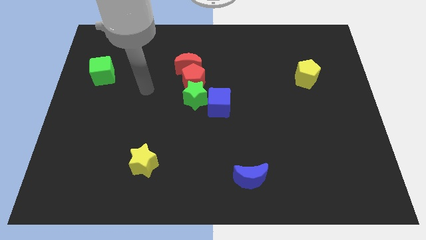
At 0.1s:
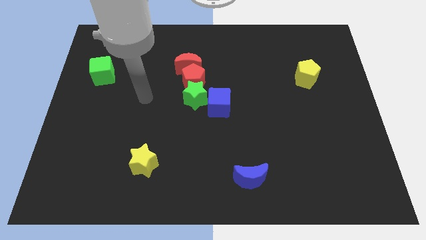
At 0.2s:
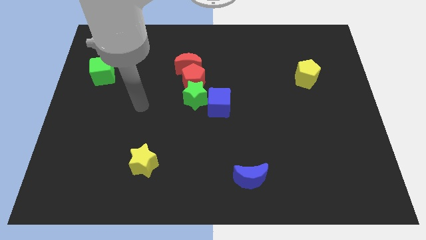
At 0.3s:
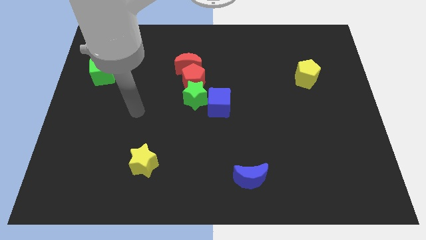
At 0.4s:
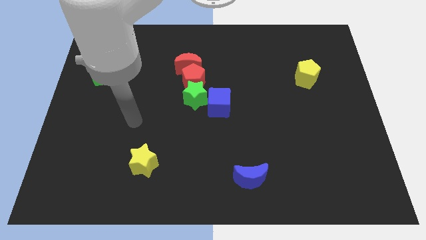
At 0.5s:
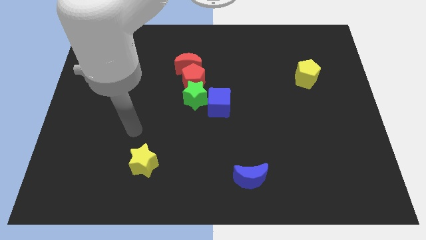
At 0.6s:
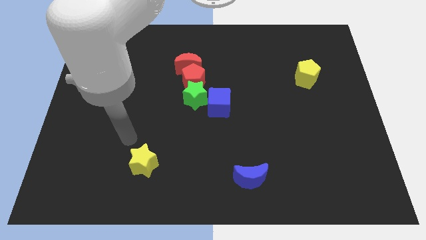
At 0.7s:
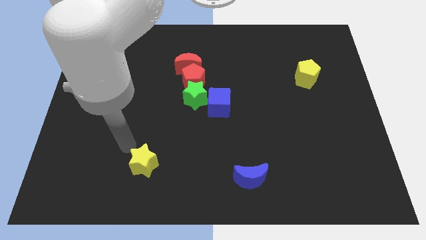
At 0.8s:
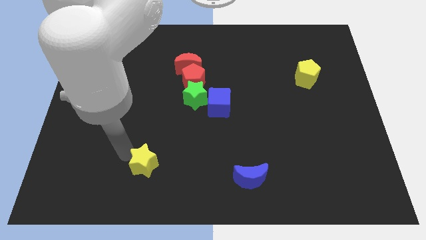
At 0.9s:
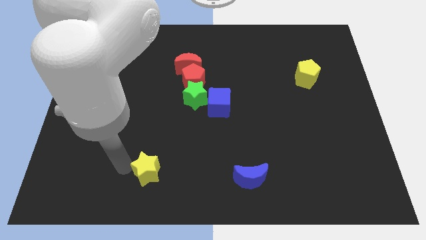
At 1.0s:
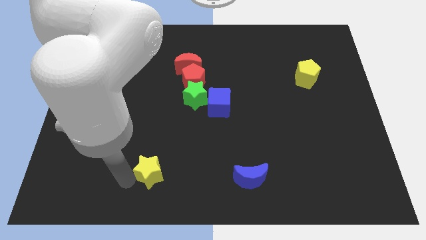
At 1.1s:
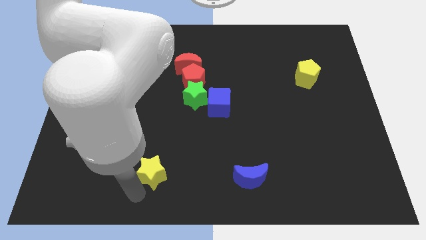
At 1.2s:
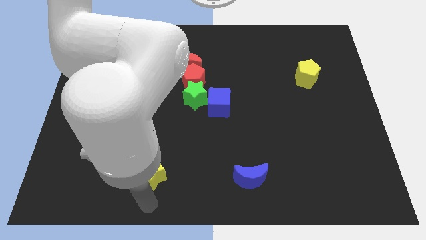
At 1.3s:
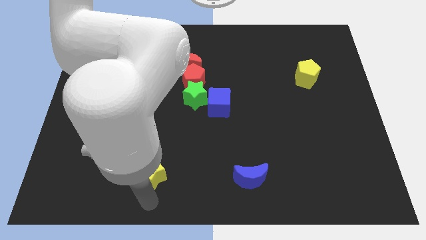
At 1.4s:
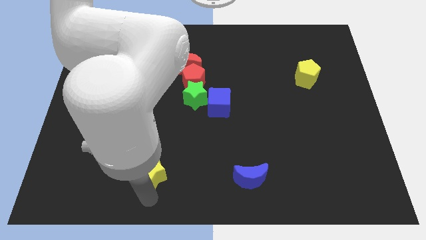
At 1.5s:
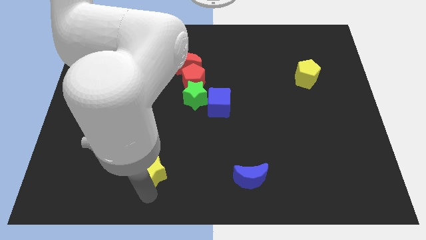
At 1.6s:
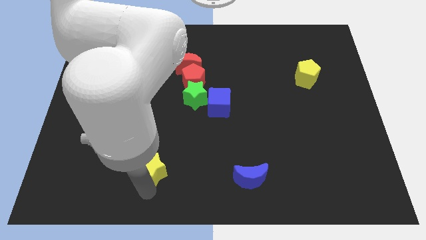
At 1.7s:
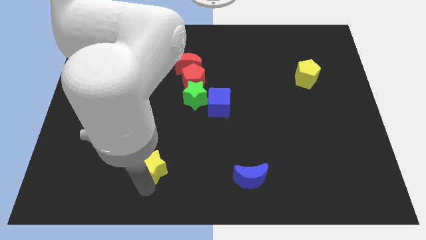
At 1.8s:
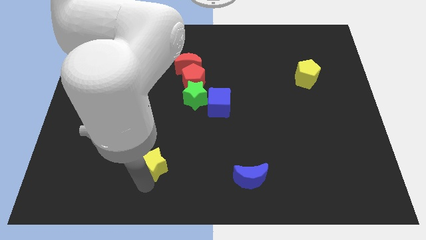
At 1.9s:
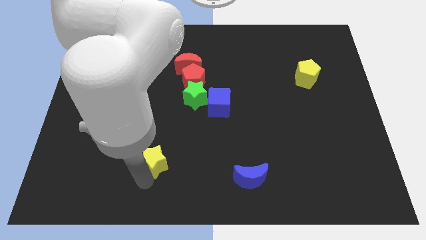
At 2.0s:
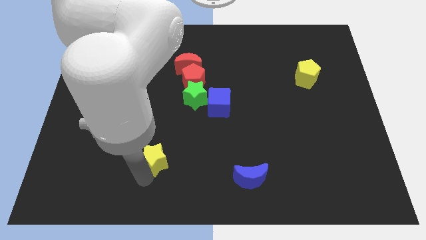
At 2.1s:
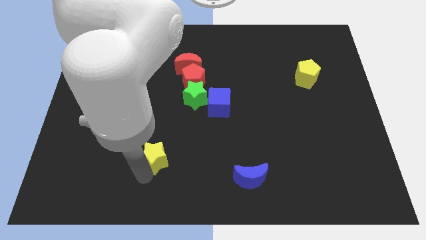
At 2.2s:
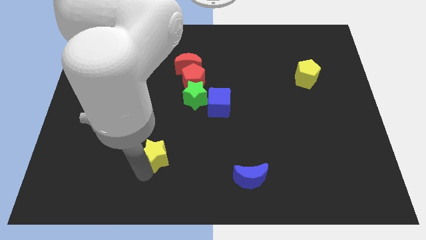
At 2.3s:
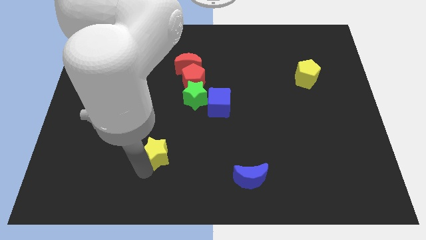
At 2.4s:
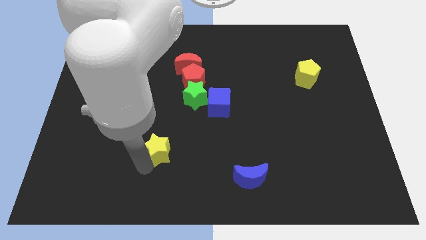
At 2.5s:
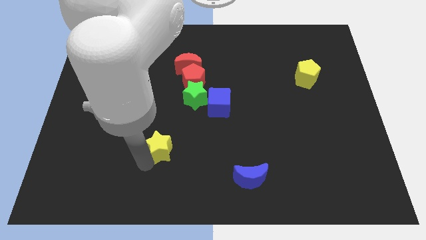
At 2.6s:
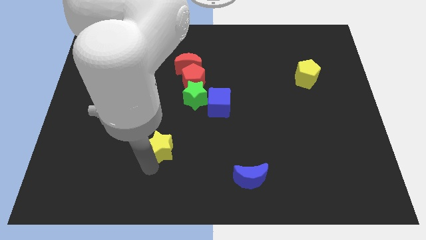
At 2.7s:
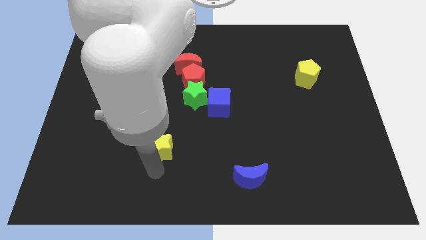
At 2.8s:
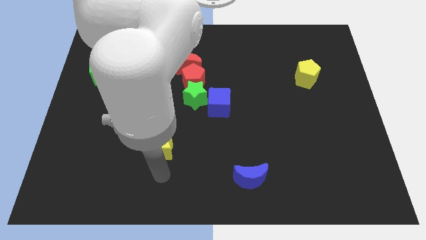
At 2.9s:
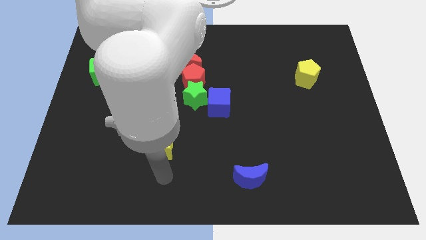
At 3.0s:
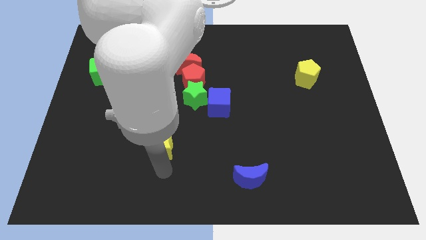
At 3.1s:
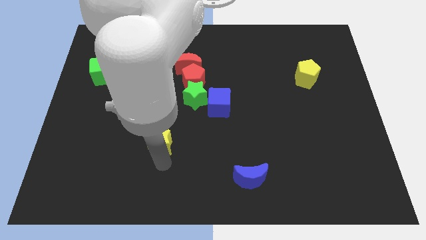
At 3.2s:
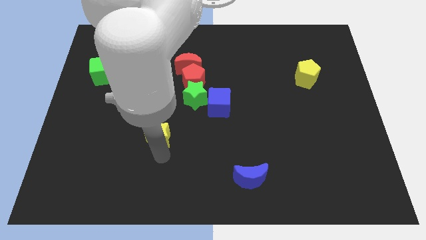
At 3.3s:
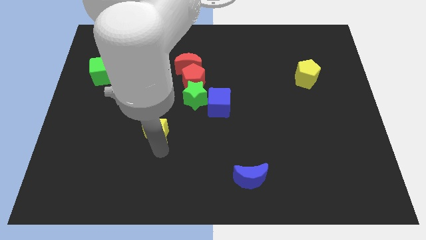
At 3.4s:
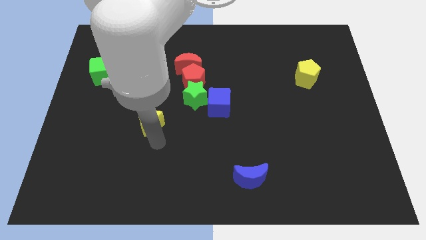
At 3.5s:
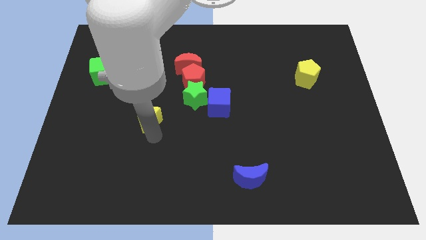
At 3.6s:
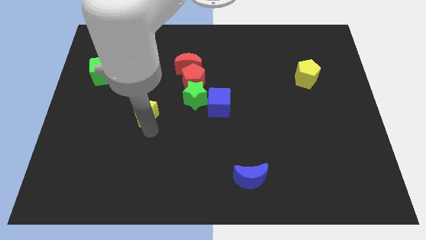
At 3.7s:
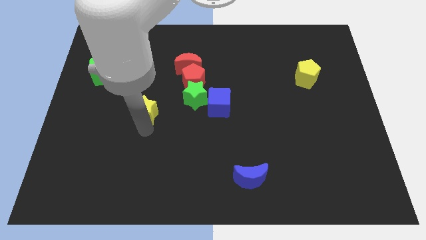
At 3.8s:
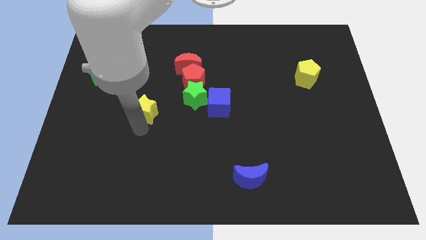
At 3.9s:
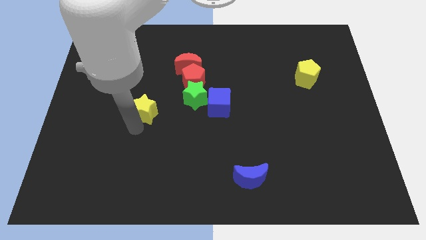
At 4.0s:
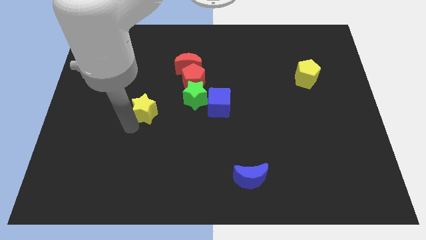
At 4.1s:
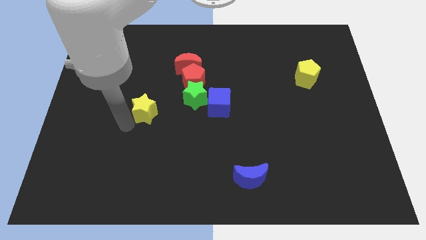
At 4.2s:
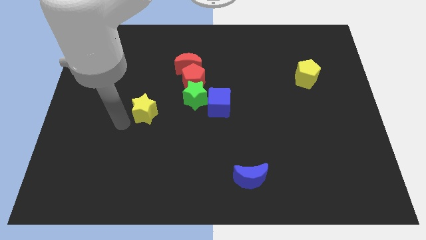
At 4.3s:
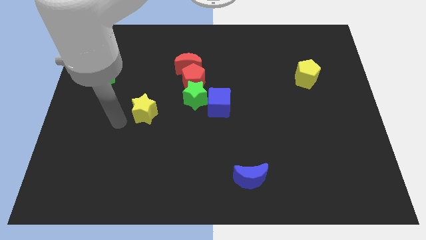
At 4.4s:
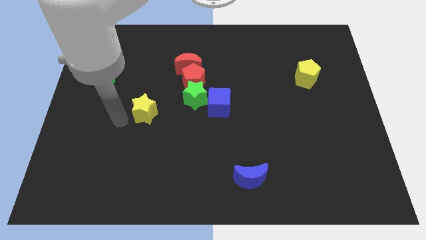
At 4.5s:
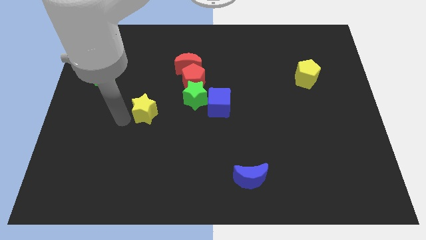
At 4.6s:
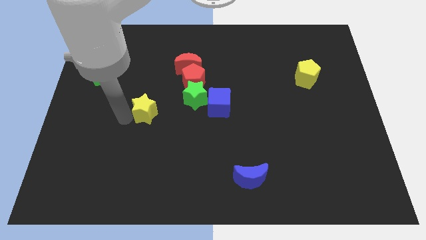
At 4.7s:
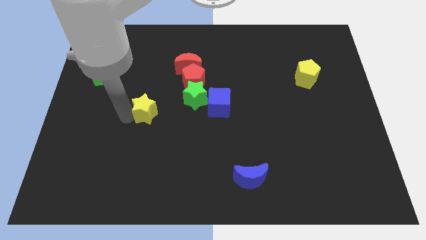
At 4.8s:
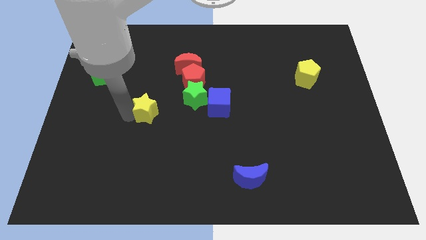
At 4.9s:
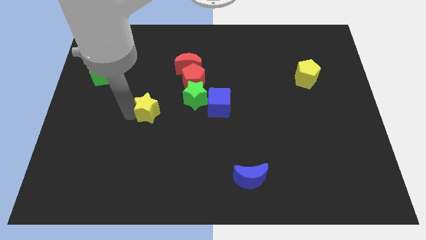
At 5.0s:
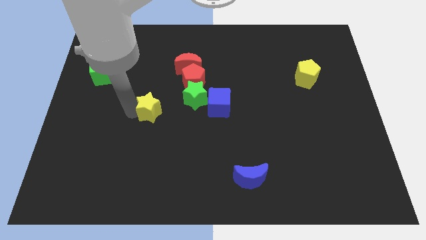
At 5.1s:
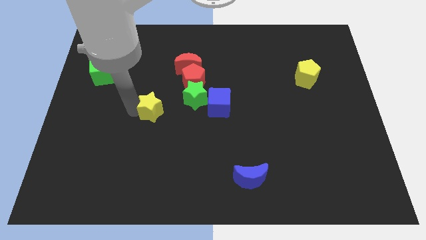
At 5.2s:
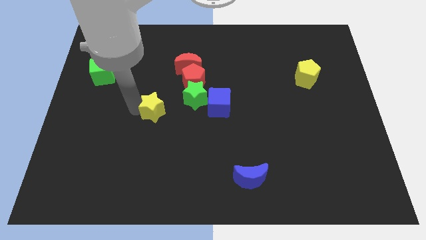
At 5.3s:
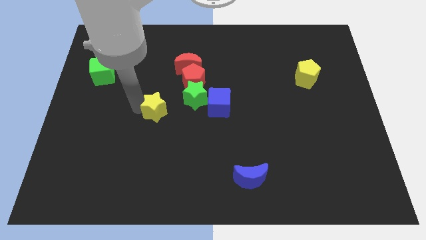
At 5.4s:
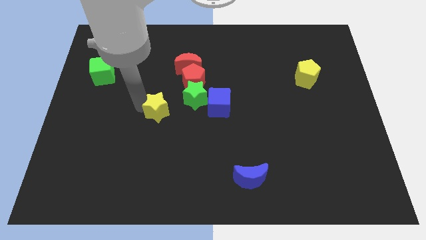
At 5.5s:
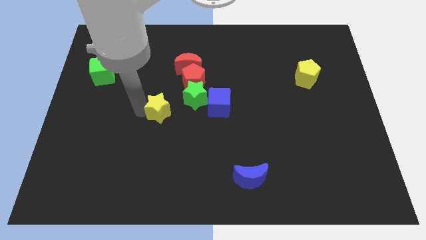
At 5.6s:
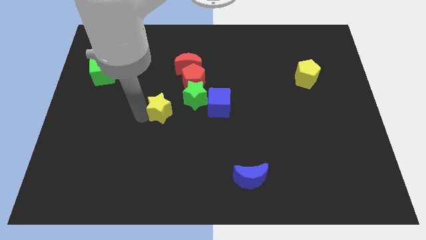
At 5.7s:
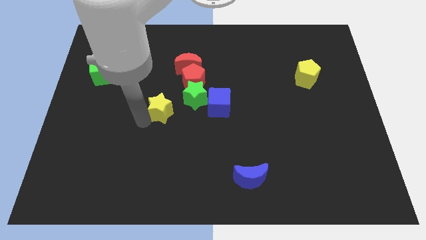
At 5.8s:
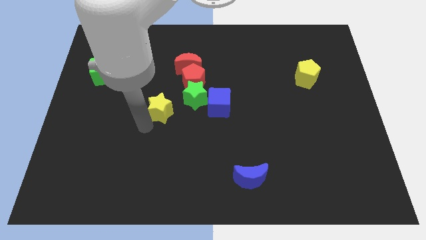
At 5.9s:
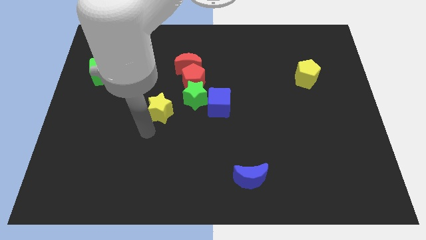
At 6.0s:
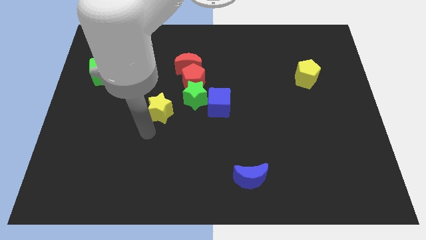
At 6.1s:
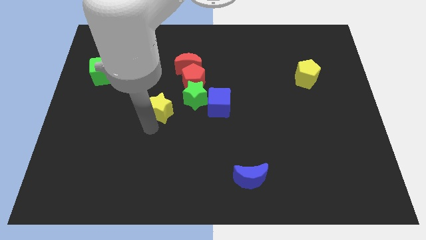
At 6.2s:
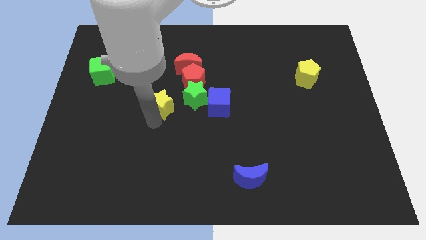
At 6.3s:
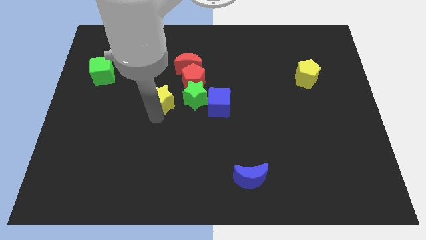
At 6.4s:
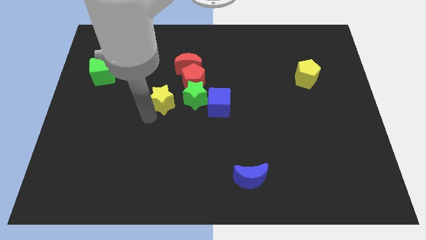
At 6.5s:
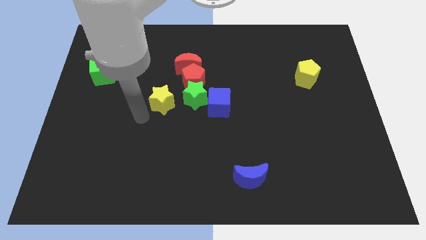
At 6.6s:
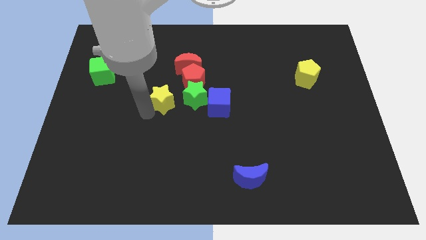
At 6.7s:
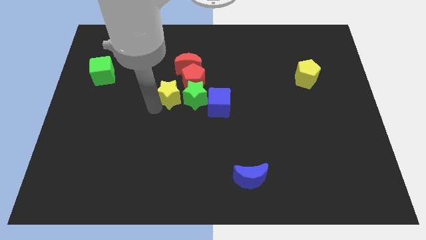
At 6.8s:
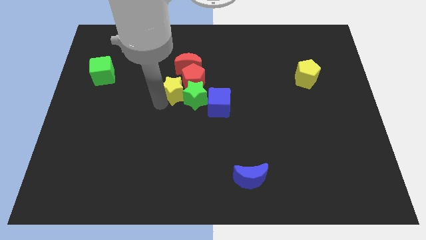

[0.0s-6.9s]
push the yellow star to the red pentagon
